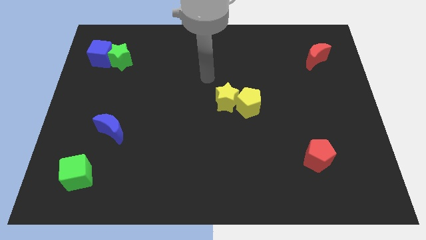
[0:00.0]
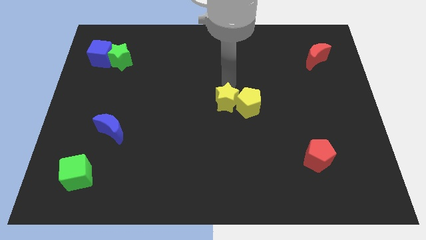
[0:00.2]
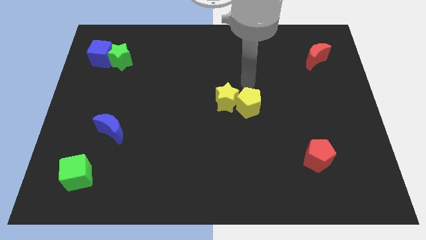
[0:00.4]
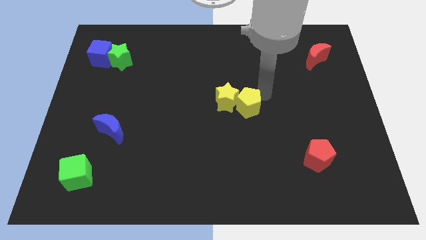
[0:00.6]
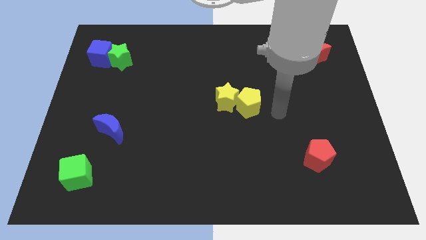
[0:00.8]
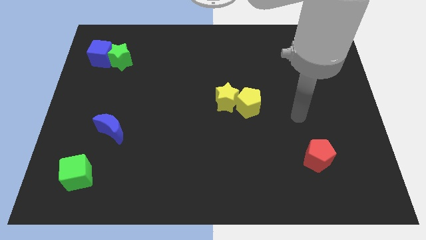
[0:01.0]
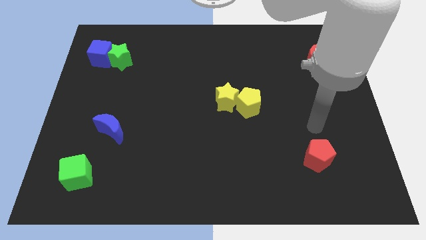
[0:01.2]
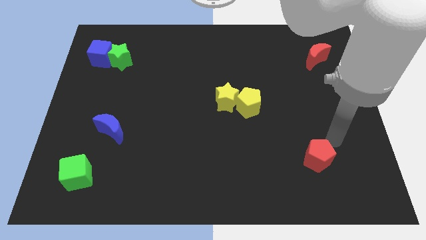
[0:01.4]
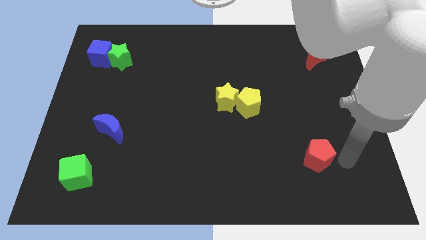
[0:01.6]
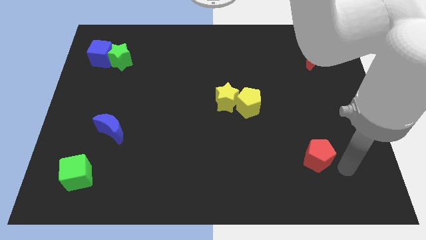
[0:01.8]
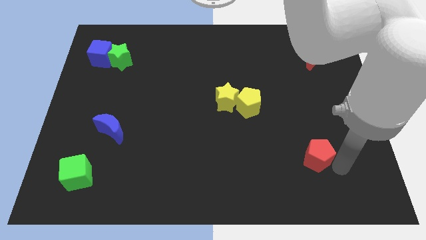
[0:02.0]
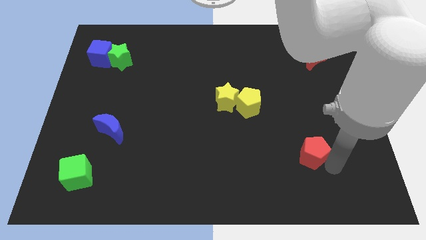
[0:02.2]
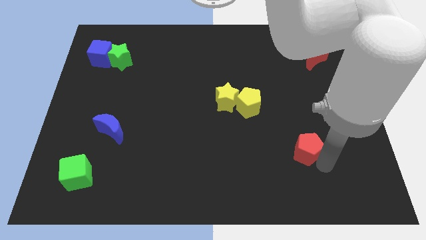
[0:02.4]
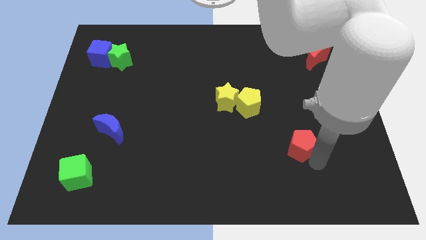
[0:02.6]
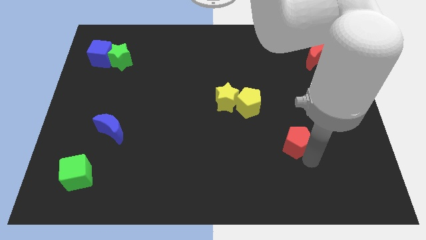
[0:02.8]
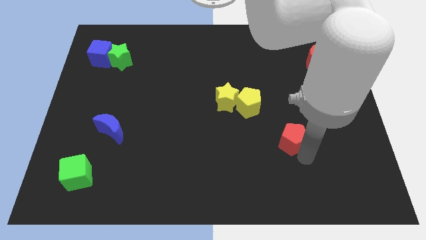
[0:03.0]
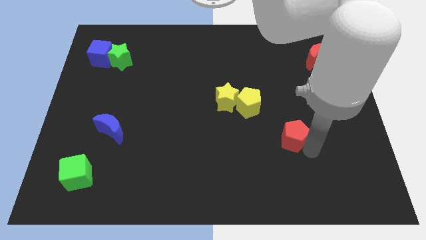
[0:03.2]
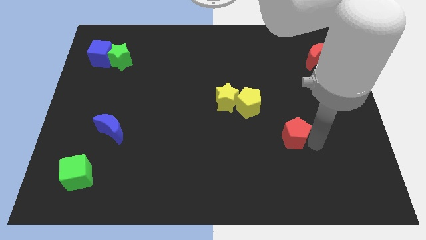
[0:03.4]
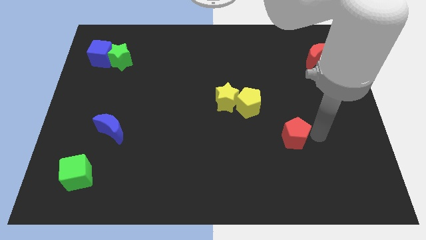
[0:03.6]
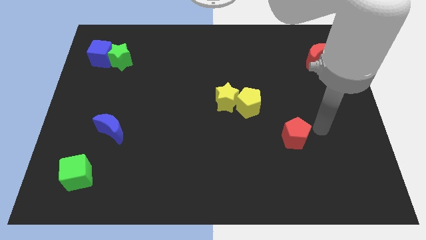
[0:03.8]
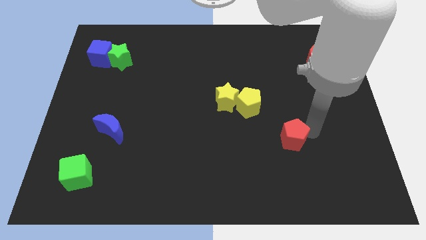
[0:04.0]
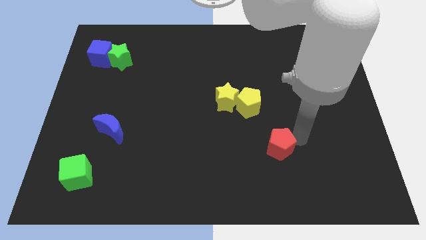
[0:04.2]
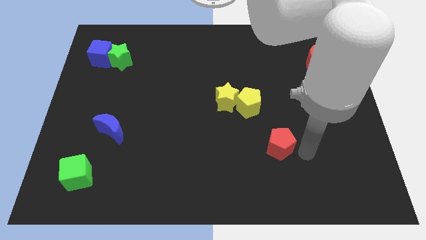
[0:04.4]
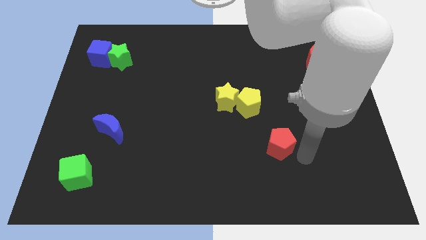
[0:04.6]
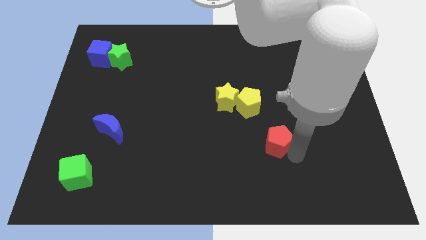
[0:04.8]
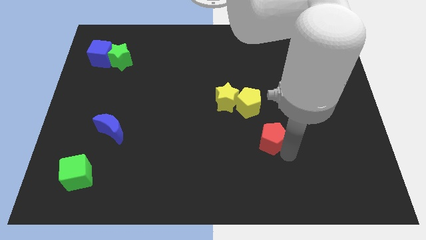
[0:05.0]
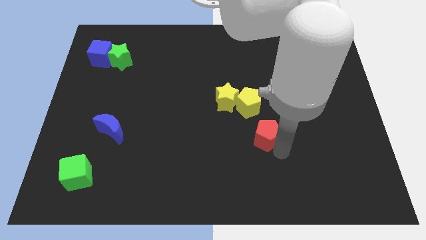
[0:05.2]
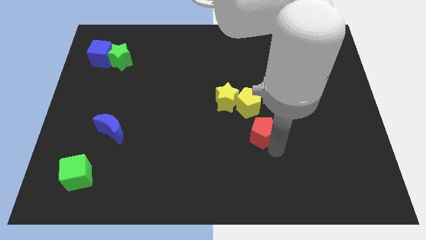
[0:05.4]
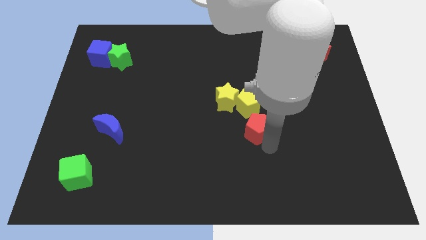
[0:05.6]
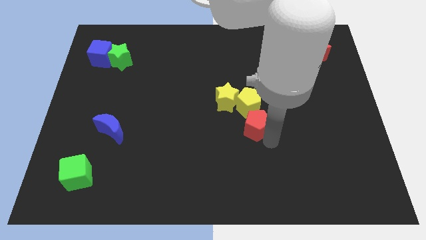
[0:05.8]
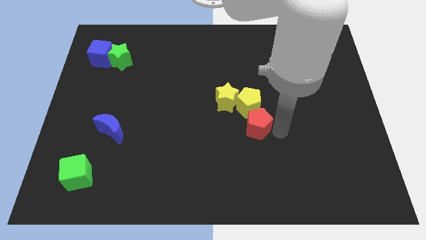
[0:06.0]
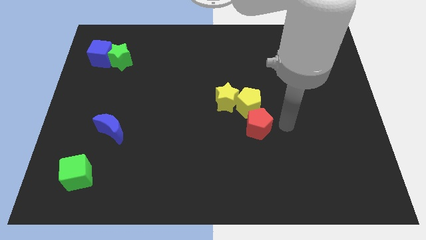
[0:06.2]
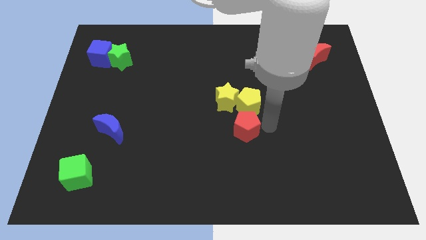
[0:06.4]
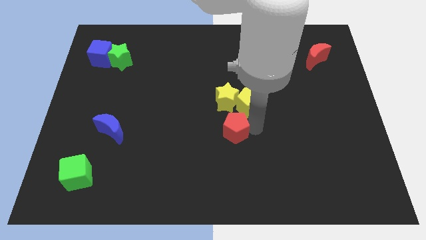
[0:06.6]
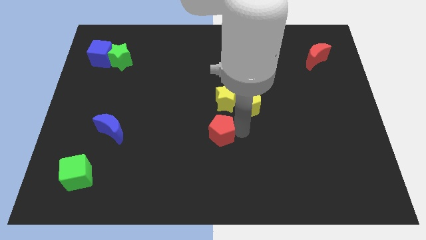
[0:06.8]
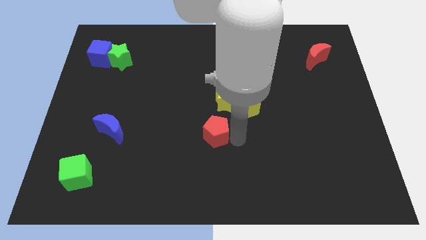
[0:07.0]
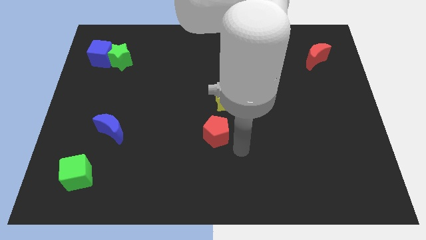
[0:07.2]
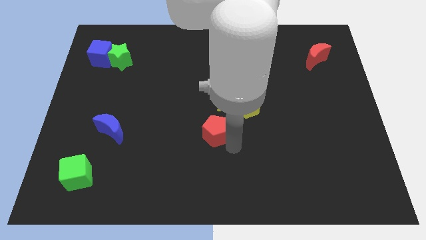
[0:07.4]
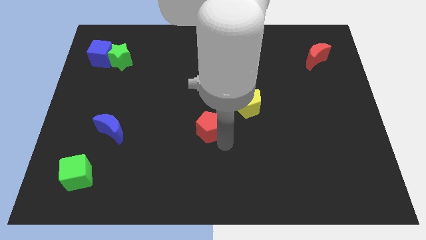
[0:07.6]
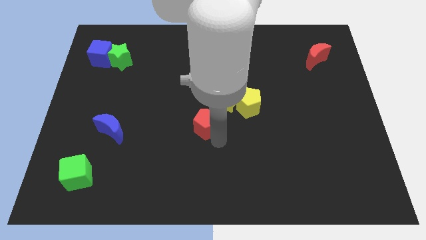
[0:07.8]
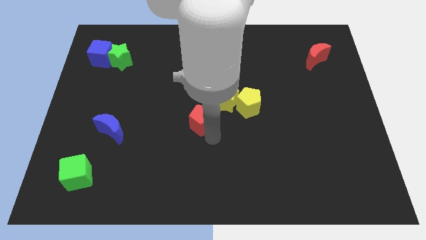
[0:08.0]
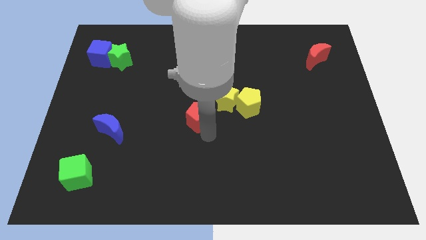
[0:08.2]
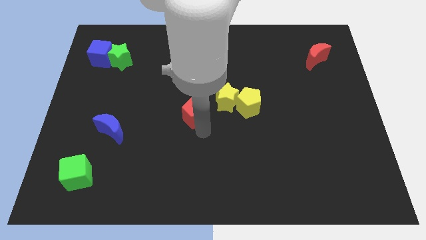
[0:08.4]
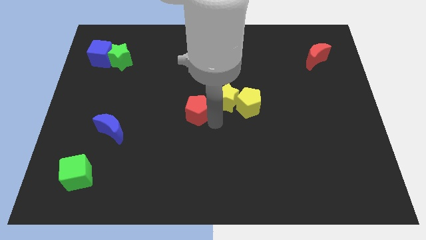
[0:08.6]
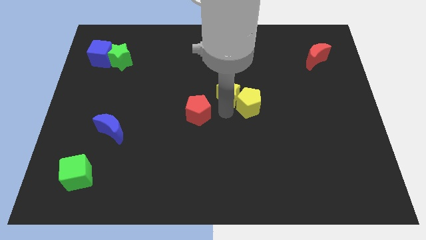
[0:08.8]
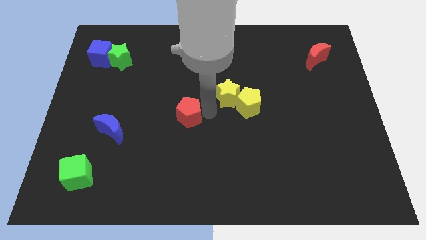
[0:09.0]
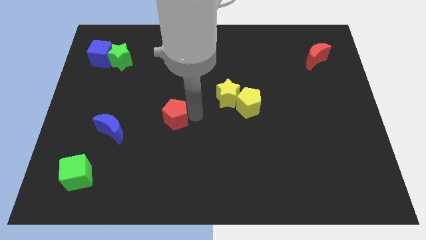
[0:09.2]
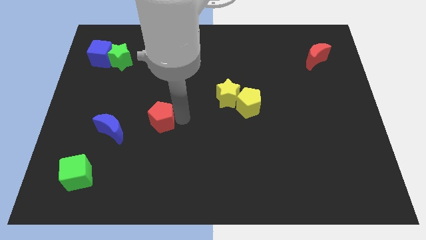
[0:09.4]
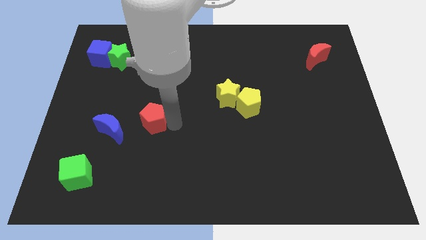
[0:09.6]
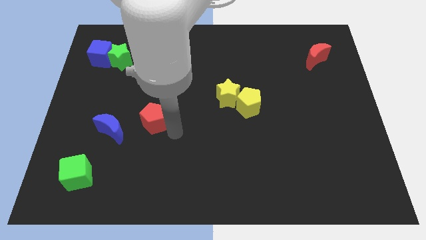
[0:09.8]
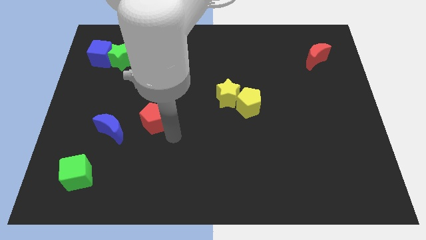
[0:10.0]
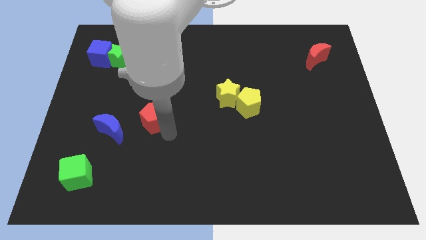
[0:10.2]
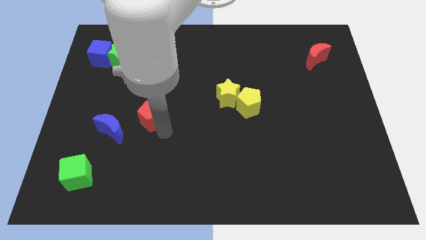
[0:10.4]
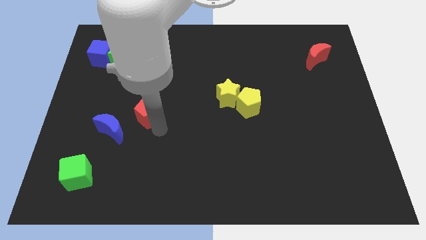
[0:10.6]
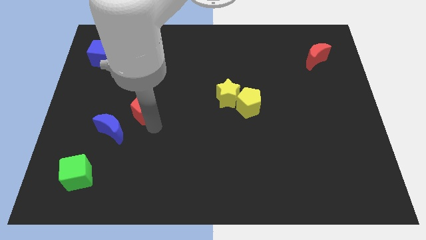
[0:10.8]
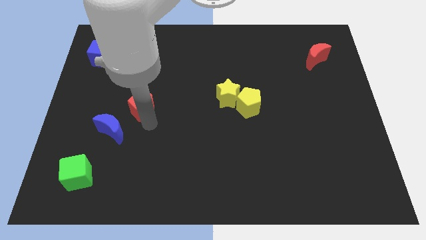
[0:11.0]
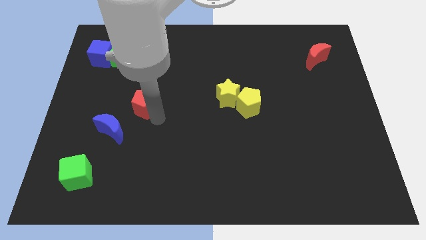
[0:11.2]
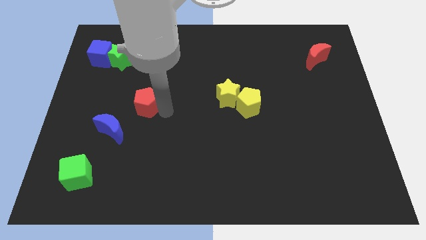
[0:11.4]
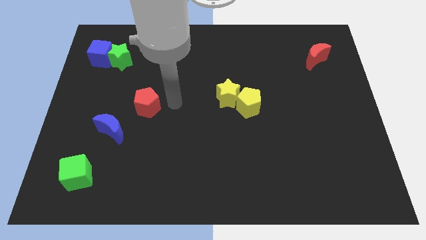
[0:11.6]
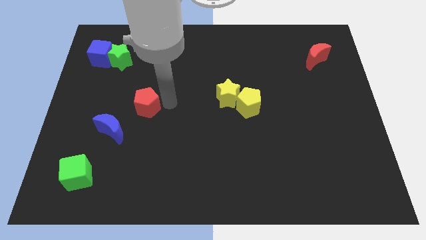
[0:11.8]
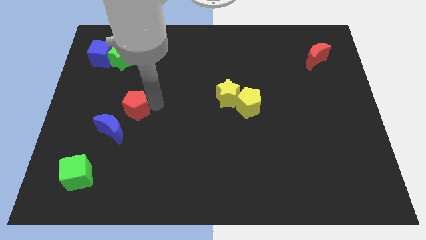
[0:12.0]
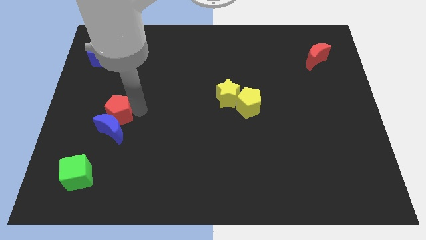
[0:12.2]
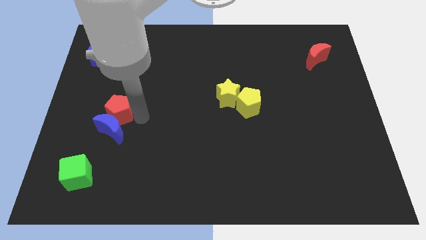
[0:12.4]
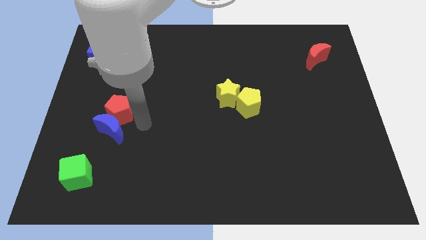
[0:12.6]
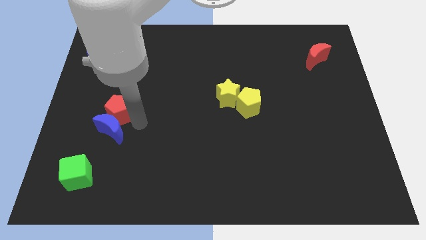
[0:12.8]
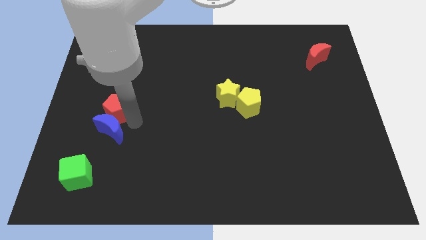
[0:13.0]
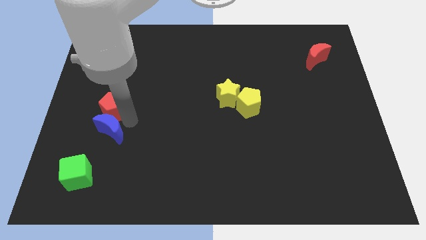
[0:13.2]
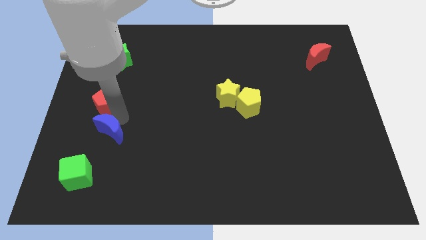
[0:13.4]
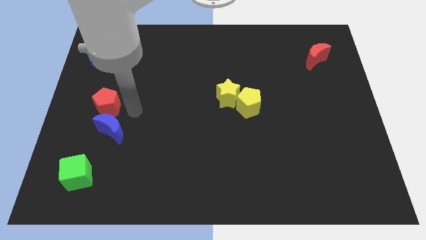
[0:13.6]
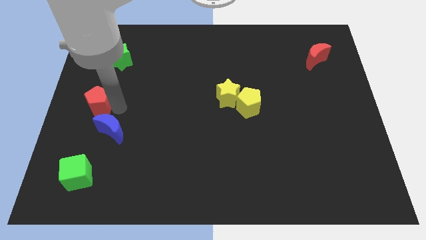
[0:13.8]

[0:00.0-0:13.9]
put the red pentagon to the left side
